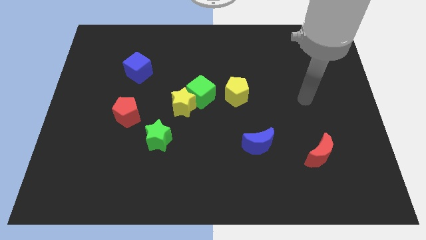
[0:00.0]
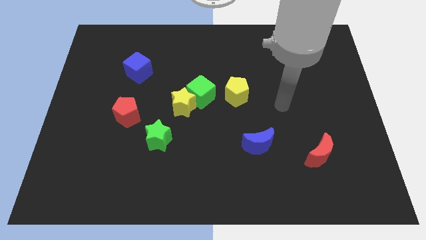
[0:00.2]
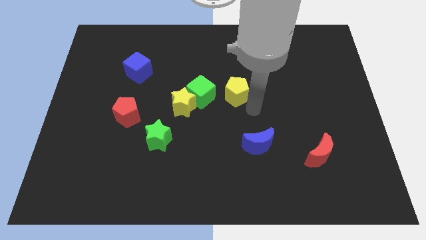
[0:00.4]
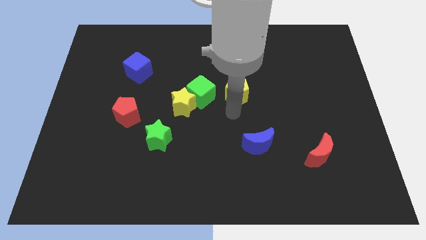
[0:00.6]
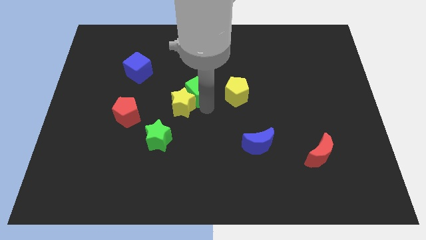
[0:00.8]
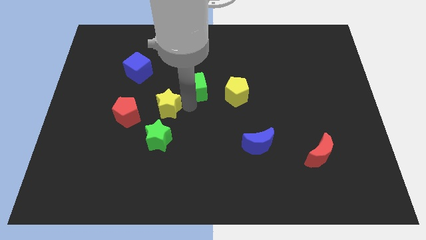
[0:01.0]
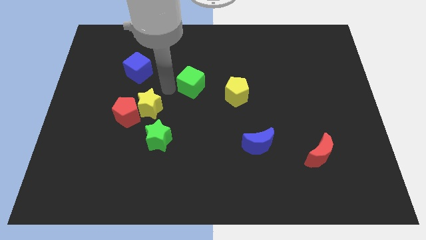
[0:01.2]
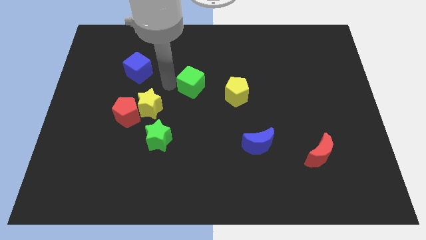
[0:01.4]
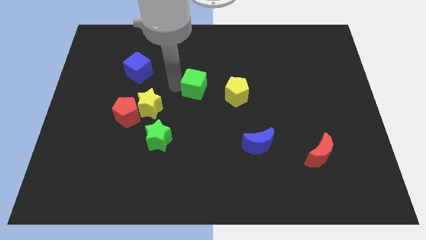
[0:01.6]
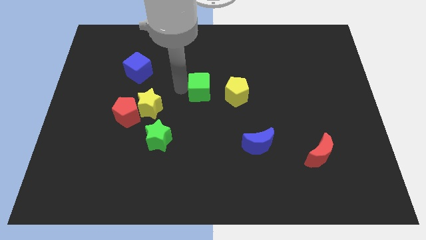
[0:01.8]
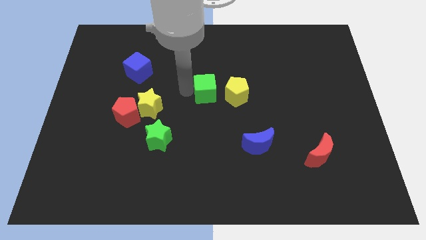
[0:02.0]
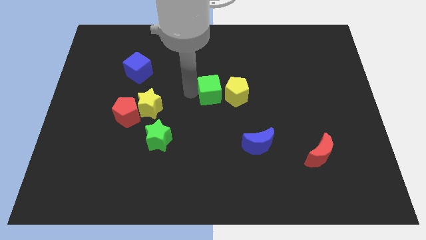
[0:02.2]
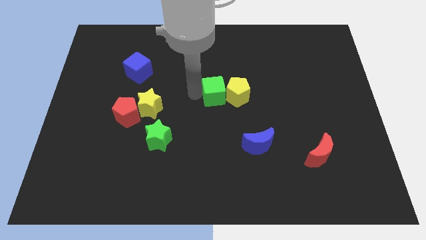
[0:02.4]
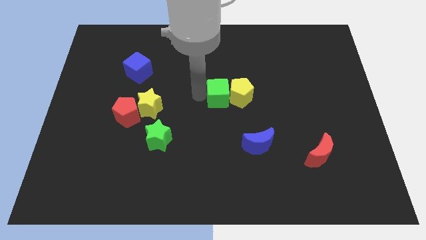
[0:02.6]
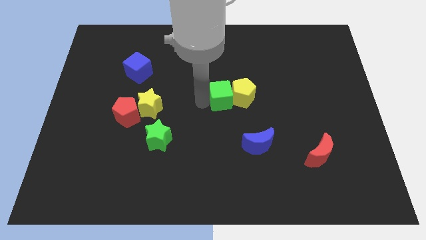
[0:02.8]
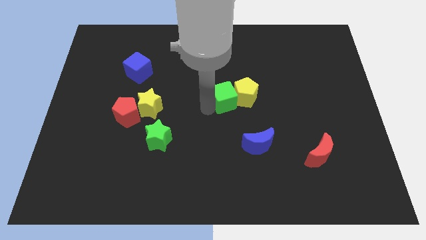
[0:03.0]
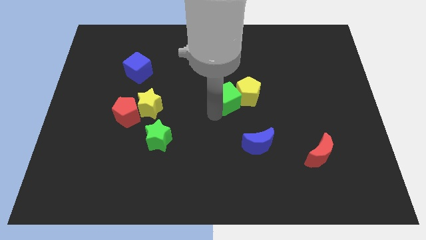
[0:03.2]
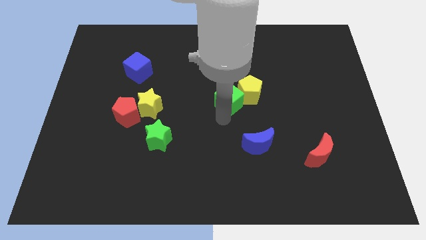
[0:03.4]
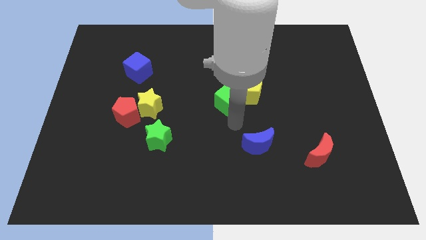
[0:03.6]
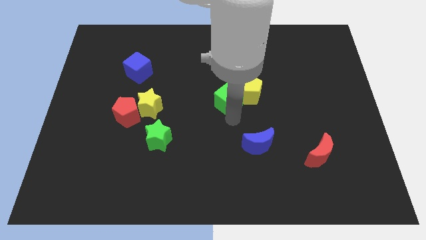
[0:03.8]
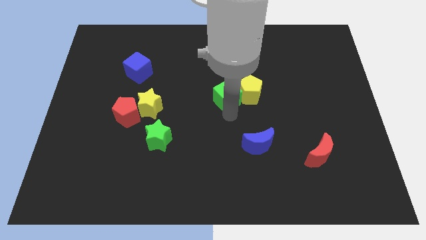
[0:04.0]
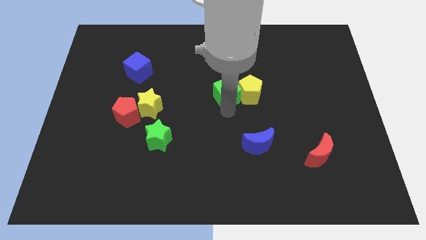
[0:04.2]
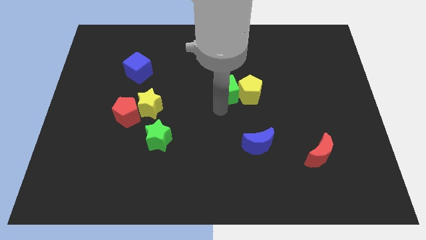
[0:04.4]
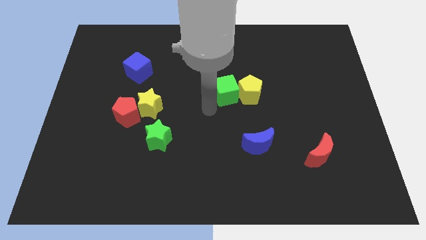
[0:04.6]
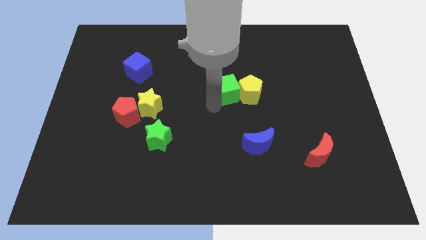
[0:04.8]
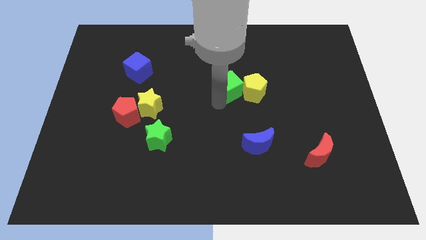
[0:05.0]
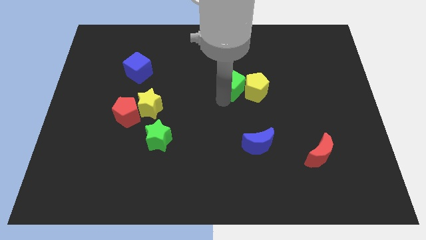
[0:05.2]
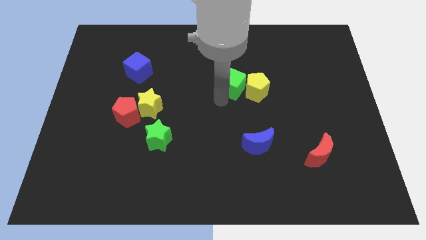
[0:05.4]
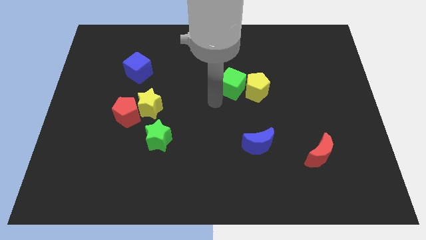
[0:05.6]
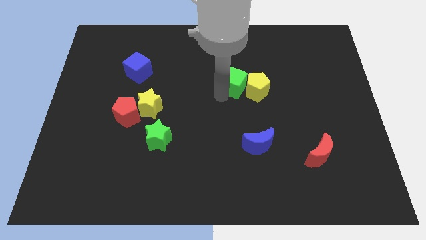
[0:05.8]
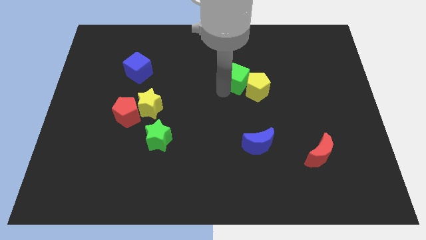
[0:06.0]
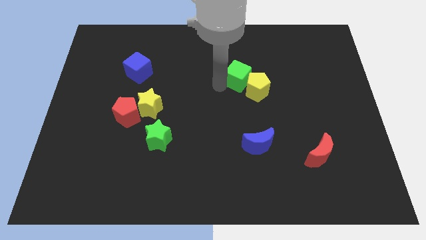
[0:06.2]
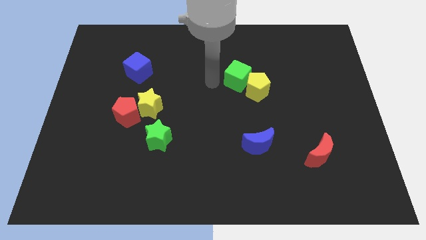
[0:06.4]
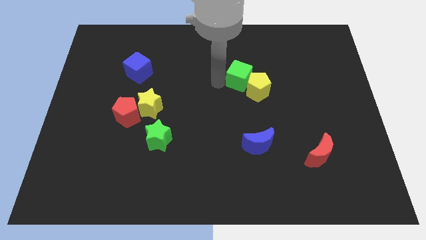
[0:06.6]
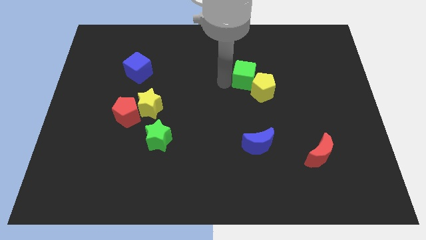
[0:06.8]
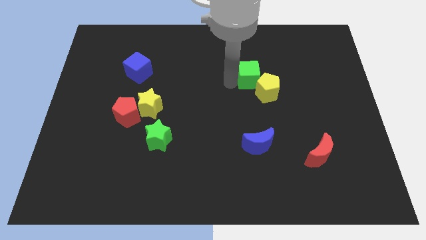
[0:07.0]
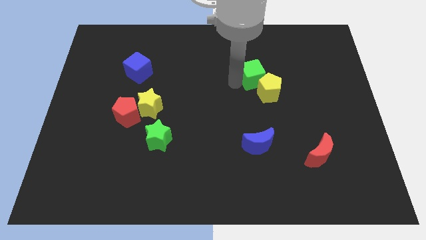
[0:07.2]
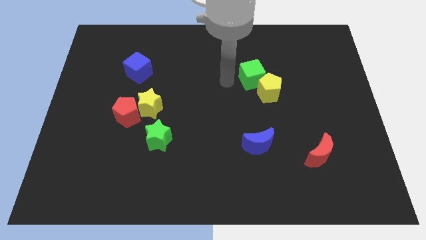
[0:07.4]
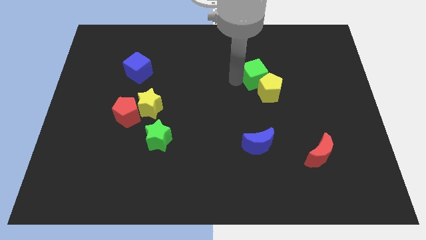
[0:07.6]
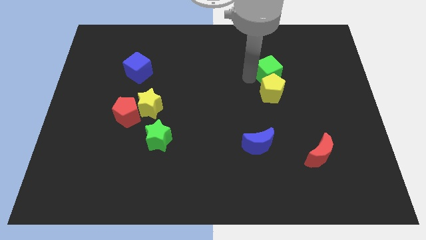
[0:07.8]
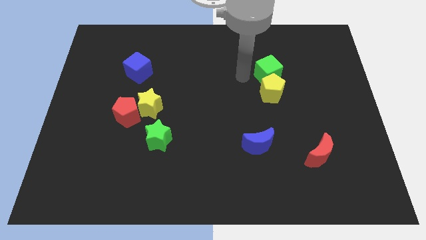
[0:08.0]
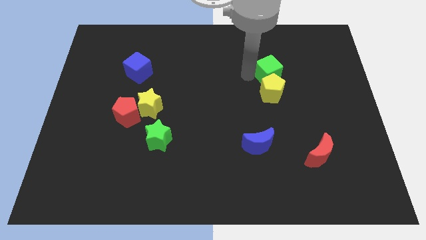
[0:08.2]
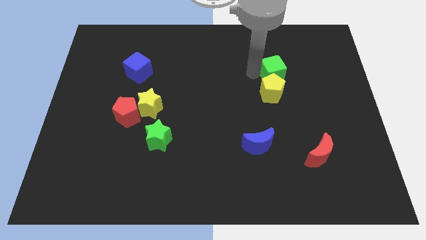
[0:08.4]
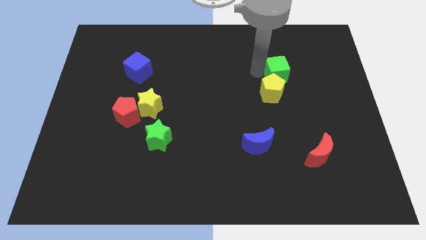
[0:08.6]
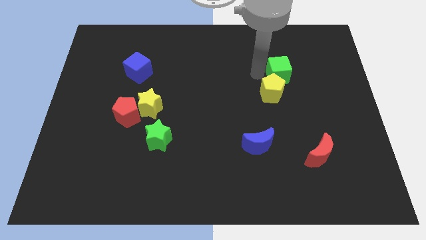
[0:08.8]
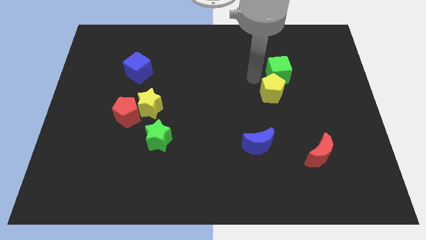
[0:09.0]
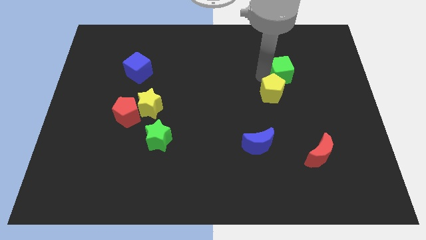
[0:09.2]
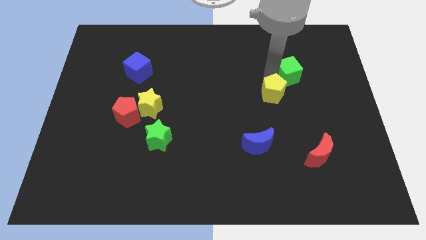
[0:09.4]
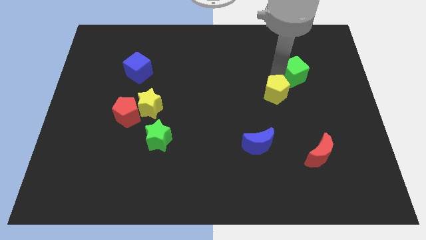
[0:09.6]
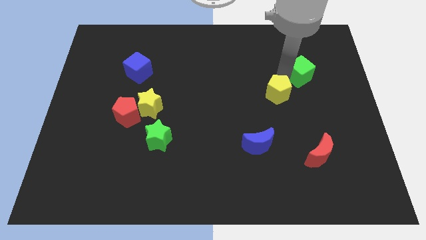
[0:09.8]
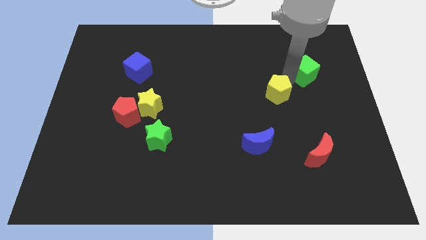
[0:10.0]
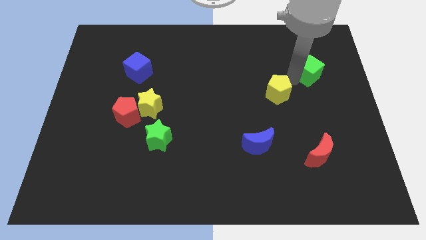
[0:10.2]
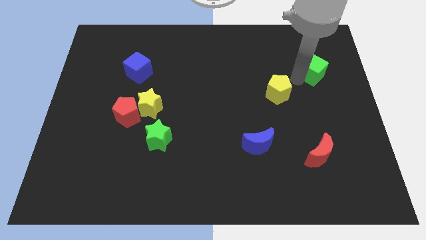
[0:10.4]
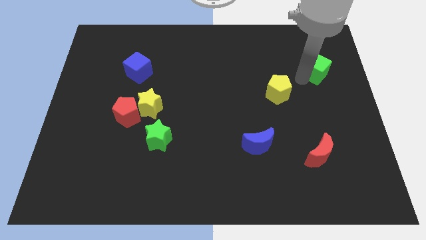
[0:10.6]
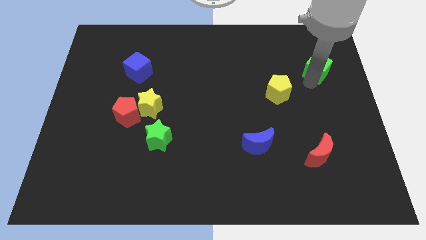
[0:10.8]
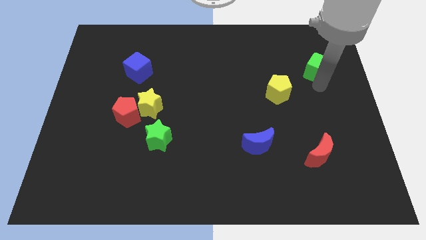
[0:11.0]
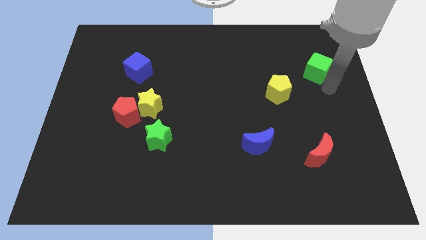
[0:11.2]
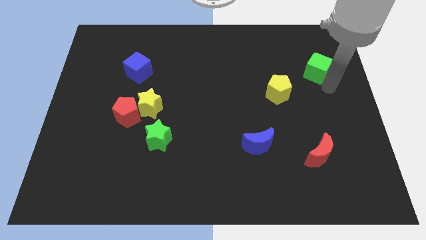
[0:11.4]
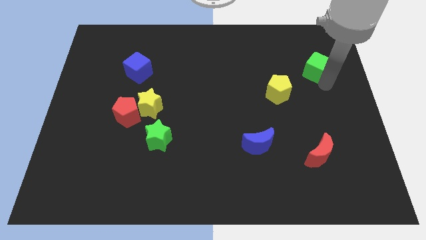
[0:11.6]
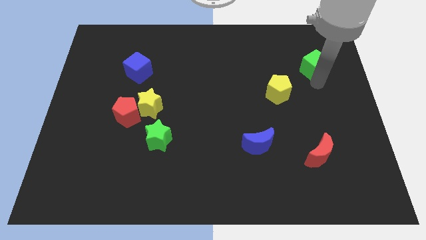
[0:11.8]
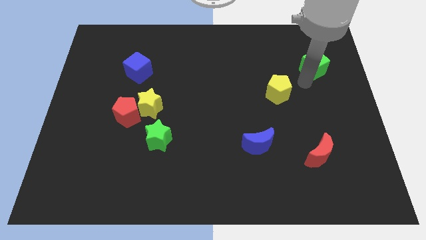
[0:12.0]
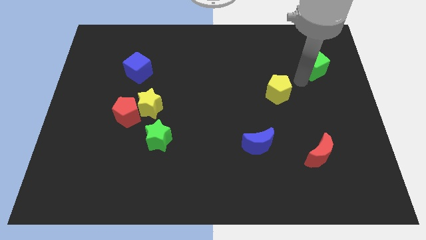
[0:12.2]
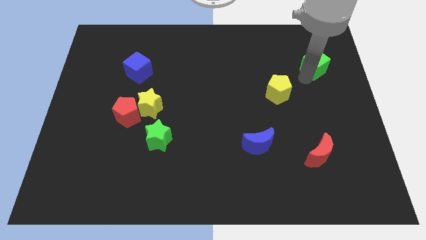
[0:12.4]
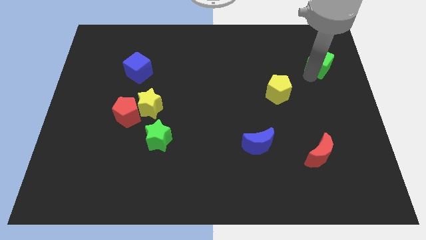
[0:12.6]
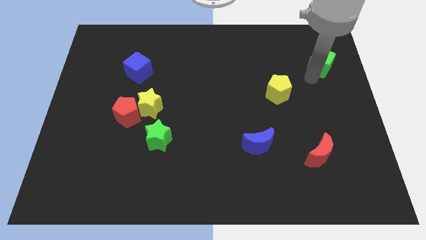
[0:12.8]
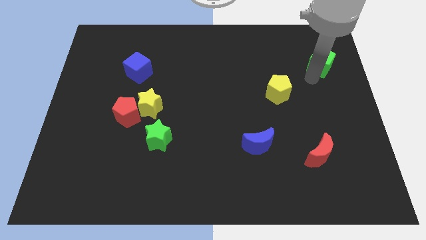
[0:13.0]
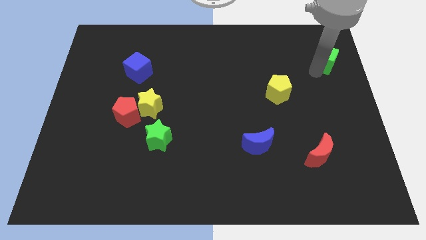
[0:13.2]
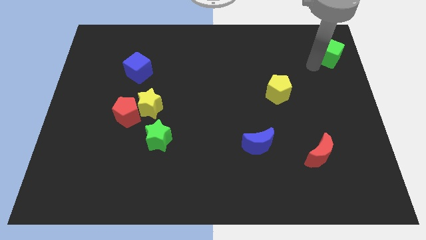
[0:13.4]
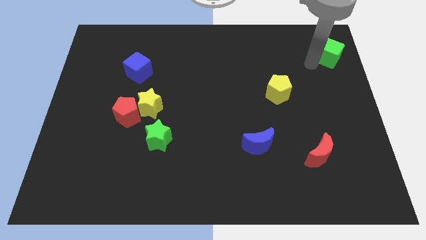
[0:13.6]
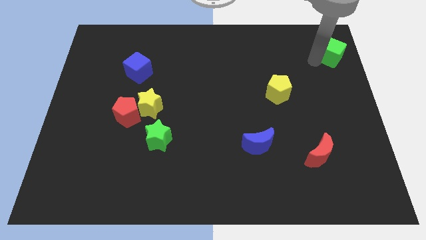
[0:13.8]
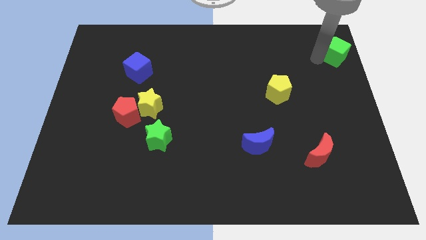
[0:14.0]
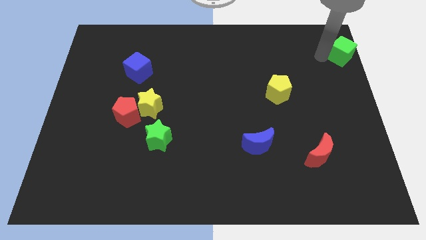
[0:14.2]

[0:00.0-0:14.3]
push the green cube to the top right corner
